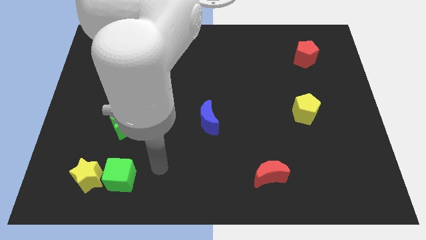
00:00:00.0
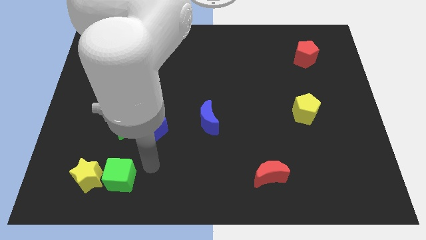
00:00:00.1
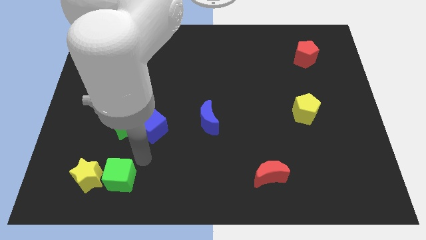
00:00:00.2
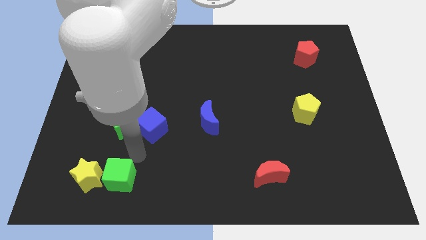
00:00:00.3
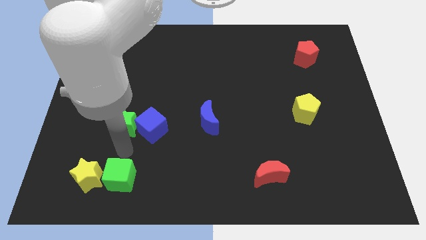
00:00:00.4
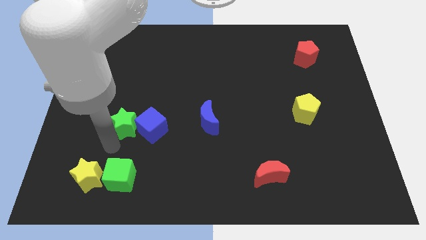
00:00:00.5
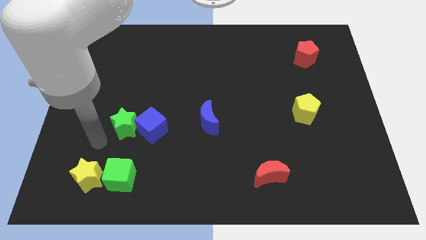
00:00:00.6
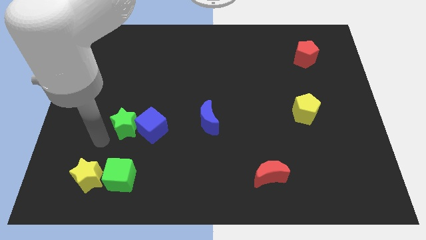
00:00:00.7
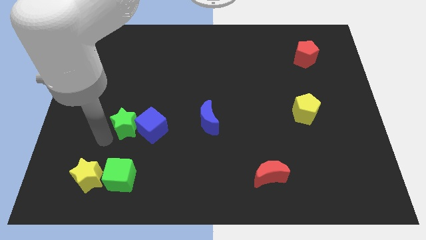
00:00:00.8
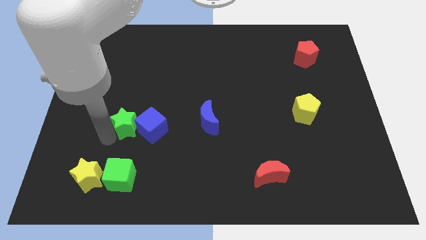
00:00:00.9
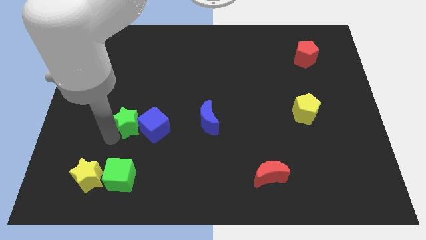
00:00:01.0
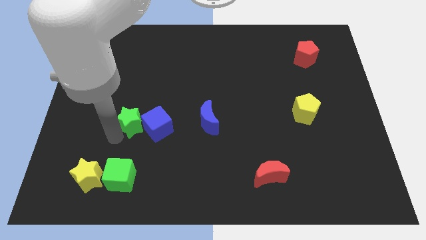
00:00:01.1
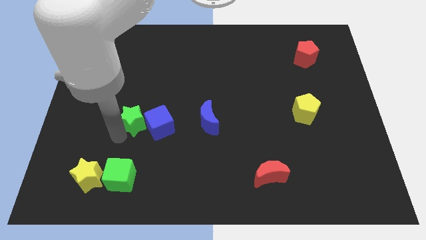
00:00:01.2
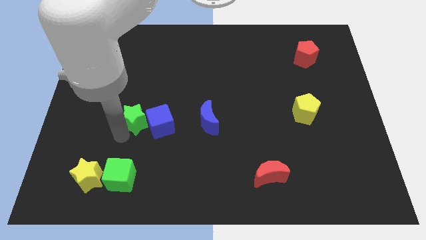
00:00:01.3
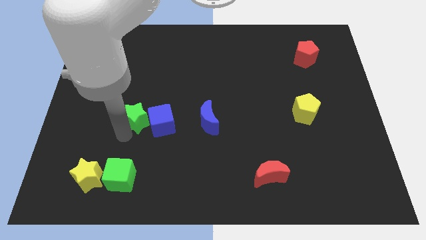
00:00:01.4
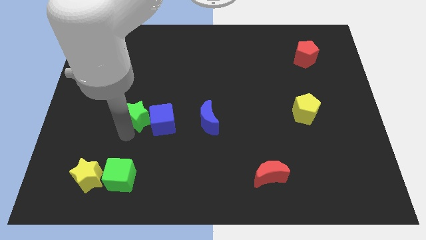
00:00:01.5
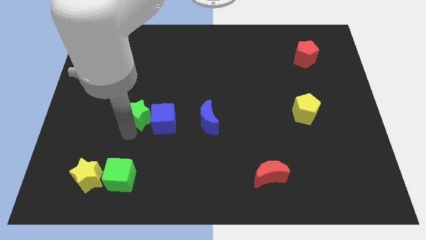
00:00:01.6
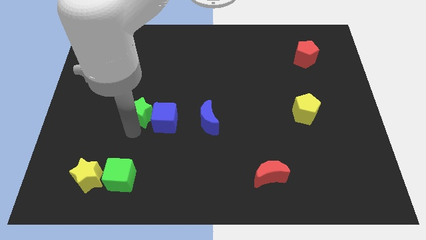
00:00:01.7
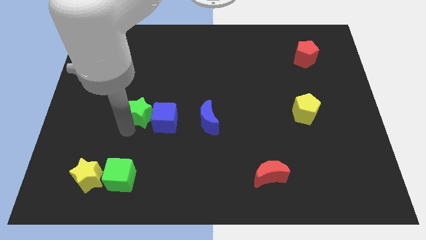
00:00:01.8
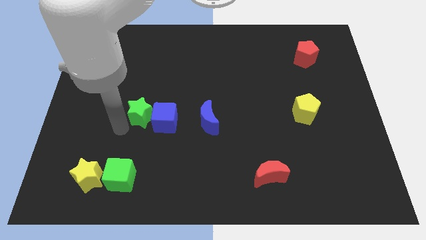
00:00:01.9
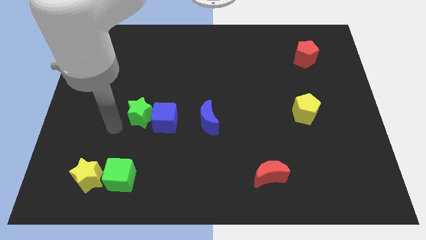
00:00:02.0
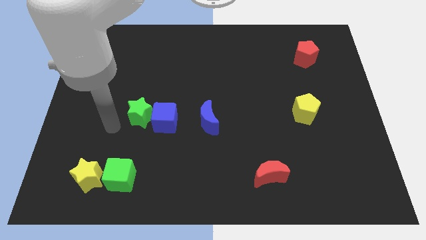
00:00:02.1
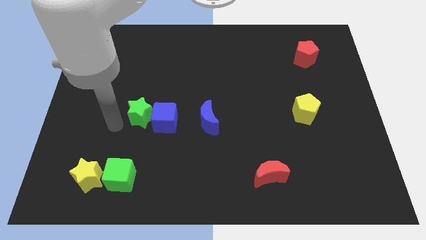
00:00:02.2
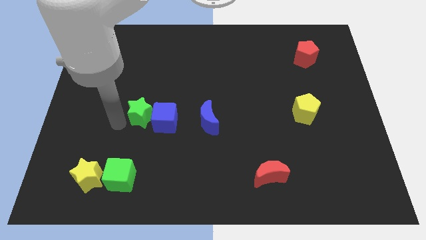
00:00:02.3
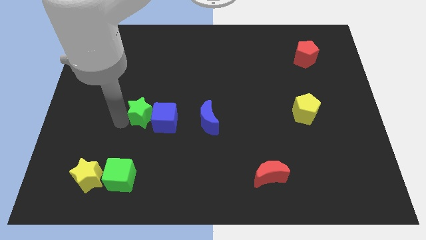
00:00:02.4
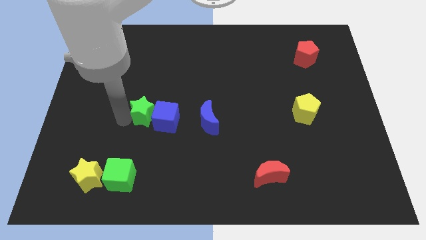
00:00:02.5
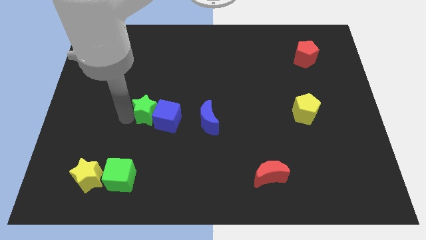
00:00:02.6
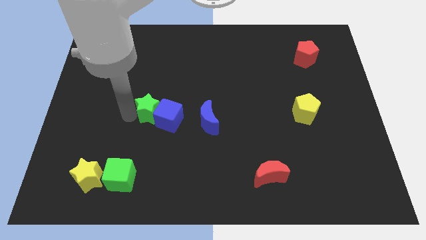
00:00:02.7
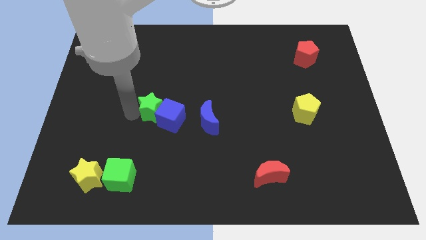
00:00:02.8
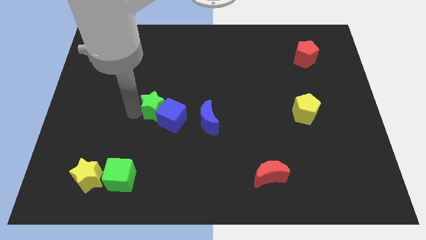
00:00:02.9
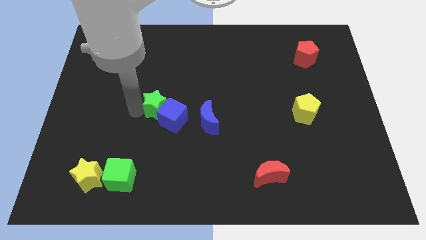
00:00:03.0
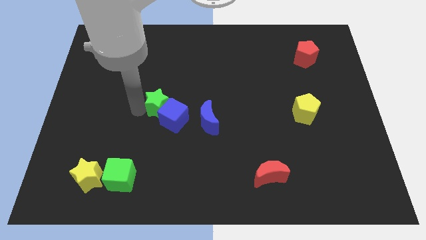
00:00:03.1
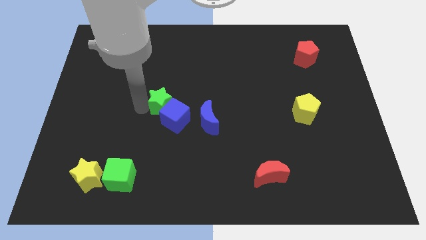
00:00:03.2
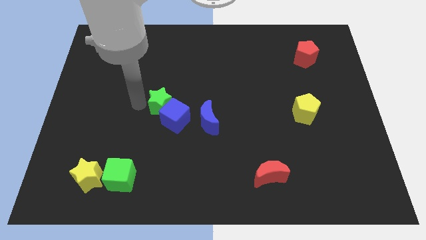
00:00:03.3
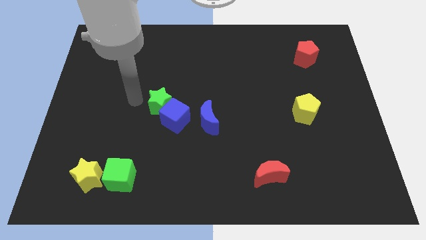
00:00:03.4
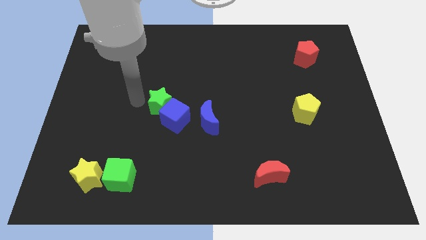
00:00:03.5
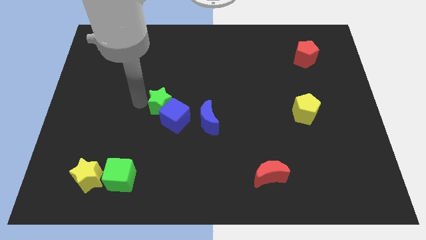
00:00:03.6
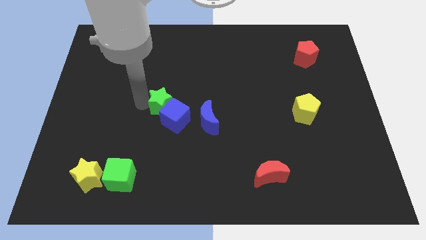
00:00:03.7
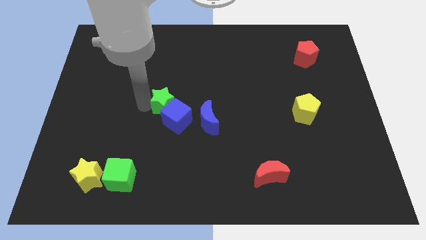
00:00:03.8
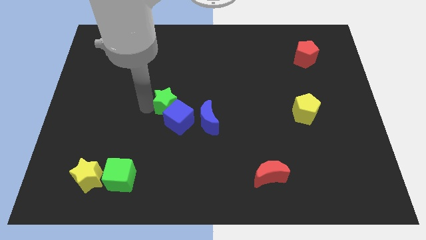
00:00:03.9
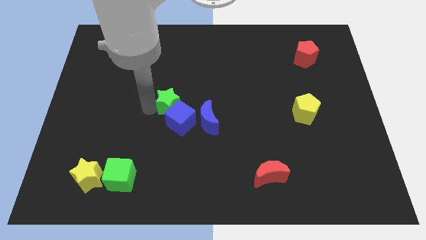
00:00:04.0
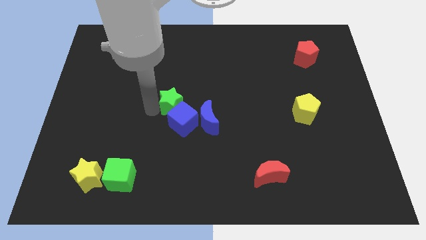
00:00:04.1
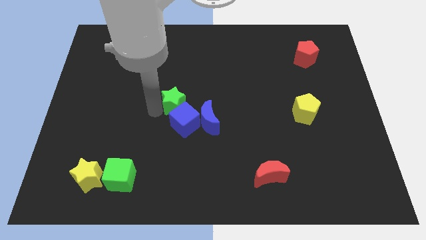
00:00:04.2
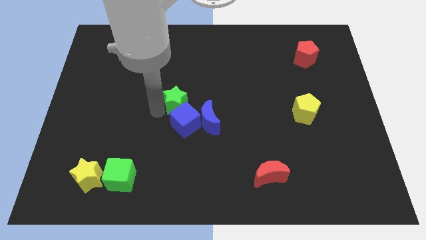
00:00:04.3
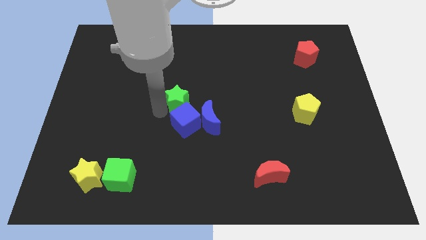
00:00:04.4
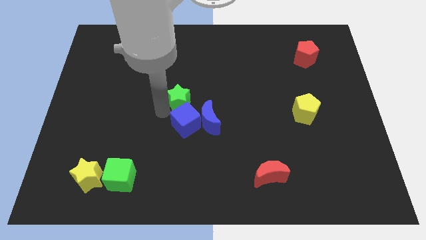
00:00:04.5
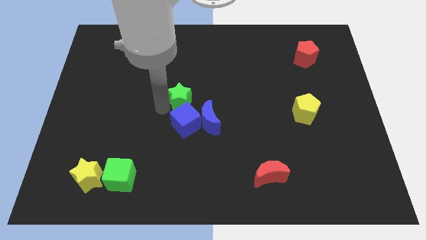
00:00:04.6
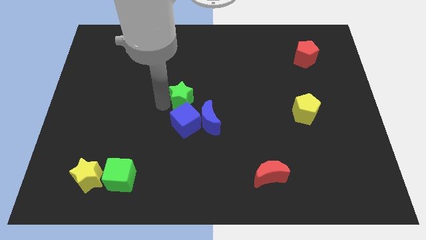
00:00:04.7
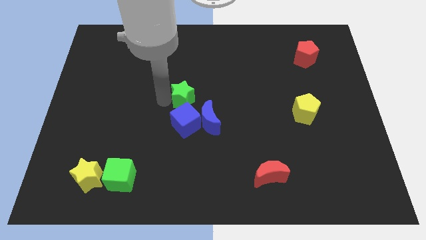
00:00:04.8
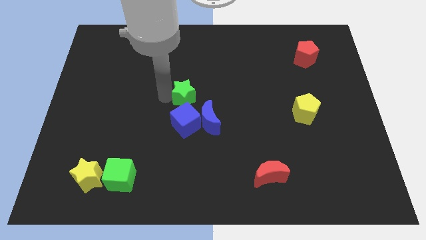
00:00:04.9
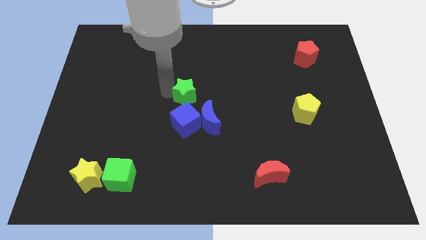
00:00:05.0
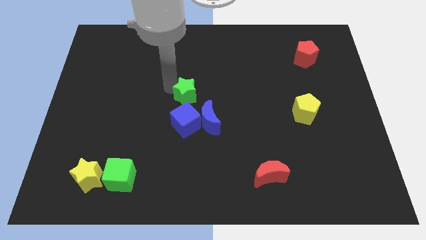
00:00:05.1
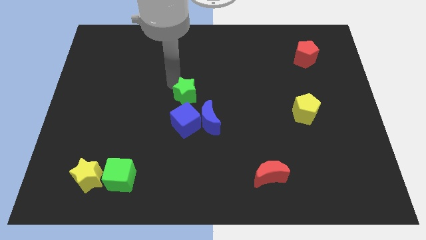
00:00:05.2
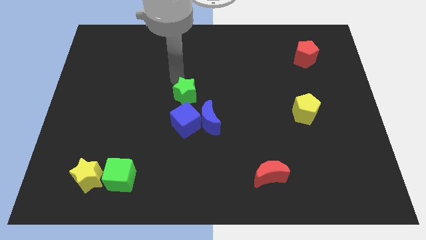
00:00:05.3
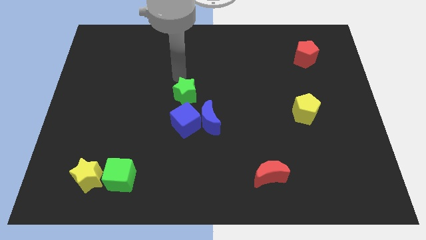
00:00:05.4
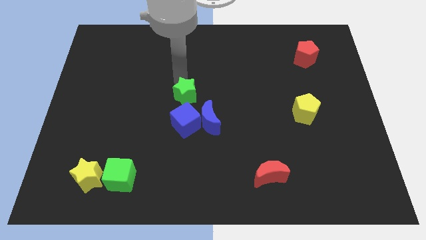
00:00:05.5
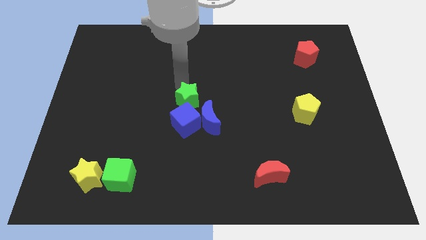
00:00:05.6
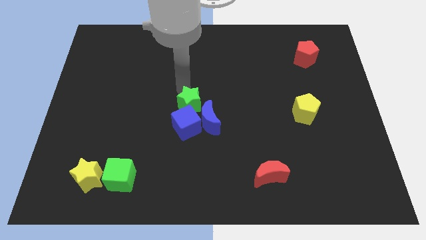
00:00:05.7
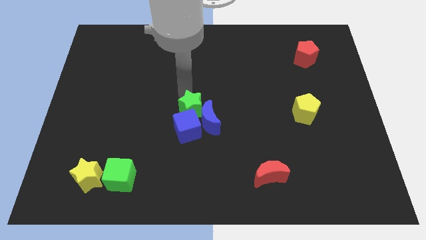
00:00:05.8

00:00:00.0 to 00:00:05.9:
move the green star to the blue moon

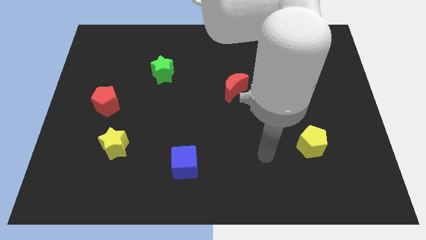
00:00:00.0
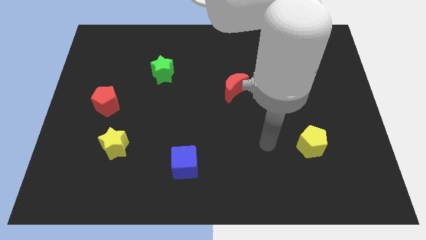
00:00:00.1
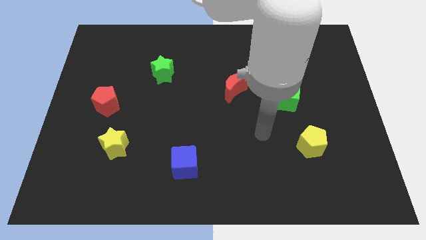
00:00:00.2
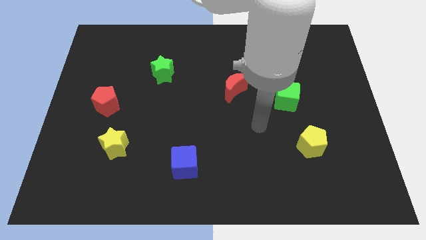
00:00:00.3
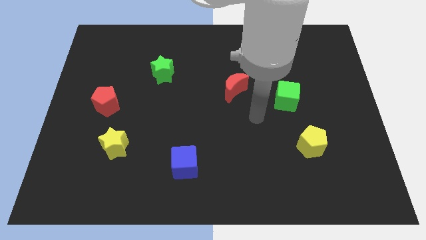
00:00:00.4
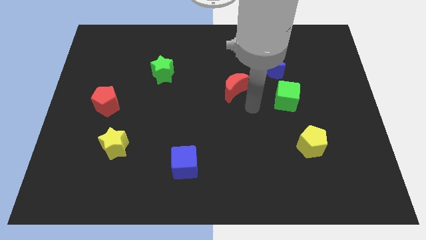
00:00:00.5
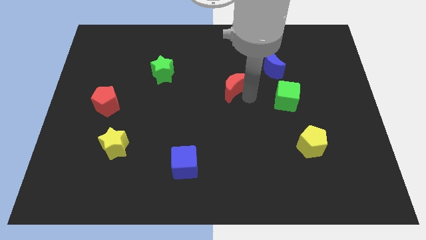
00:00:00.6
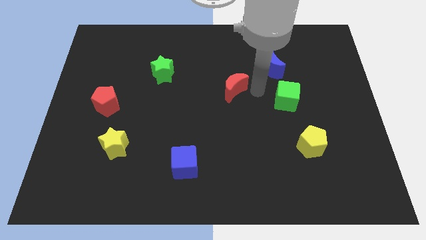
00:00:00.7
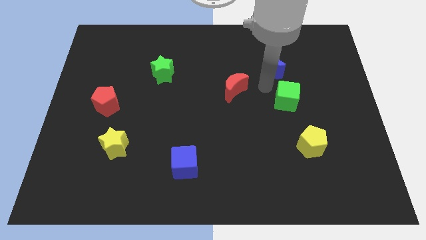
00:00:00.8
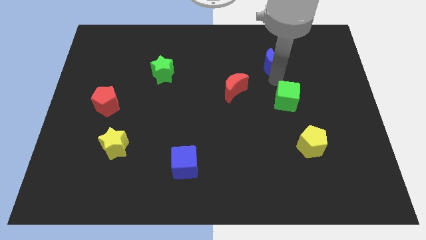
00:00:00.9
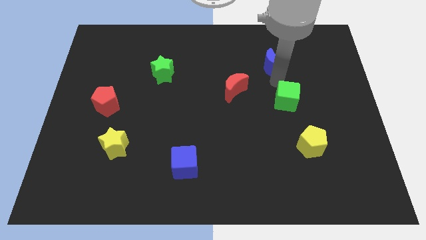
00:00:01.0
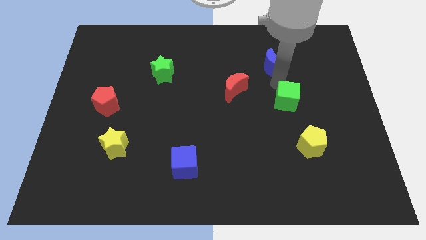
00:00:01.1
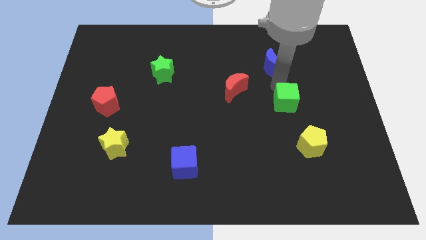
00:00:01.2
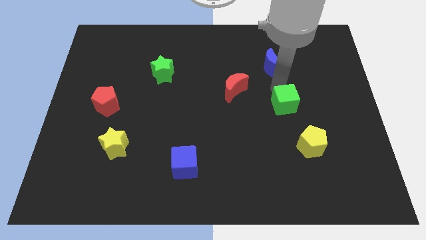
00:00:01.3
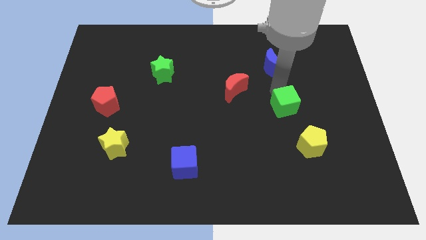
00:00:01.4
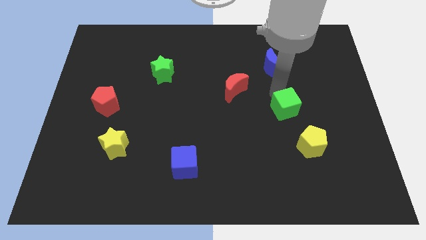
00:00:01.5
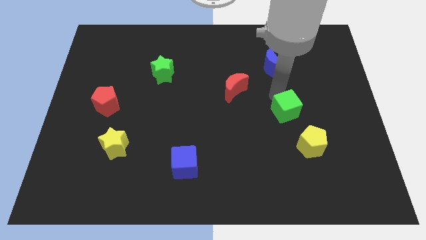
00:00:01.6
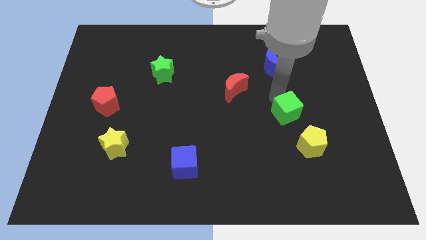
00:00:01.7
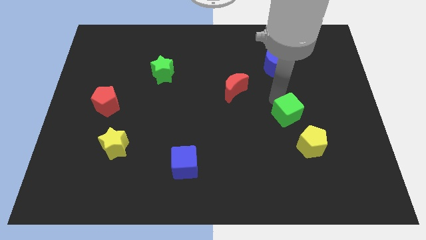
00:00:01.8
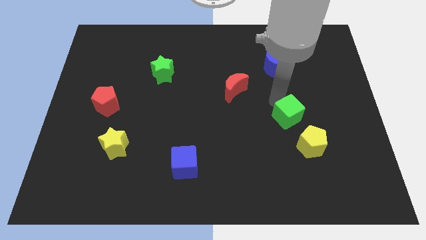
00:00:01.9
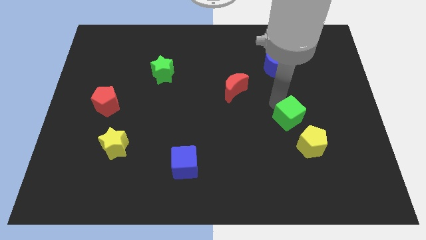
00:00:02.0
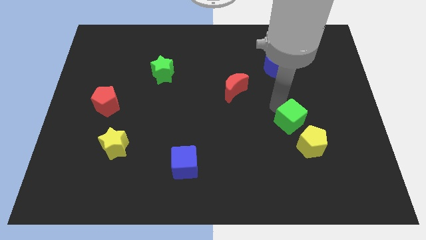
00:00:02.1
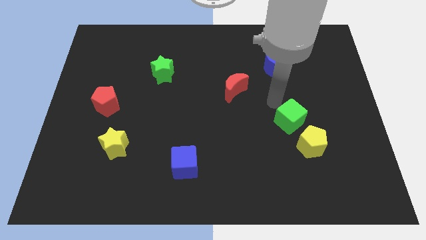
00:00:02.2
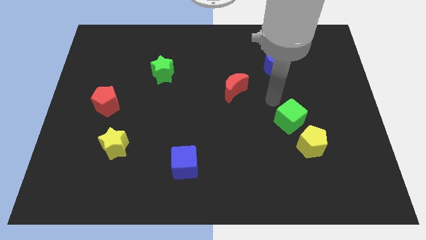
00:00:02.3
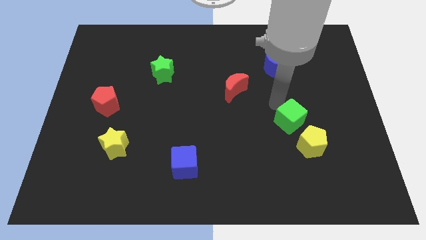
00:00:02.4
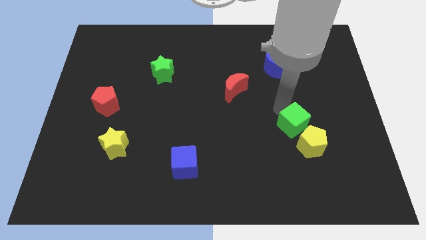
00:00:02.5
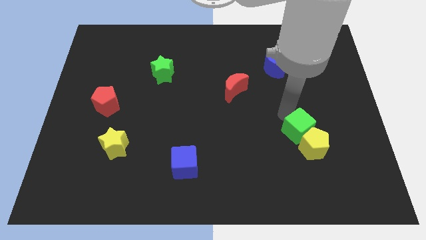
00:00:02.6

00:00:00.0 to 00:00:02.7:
move the green cube towards the yellow pentagon
